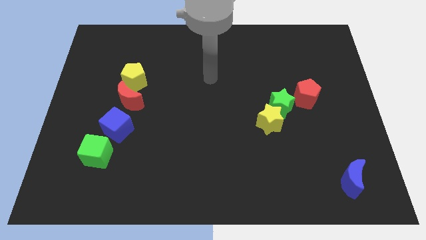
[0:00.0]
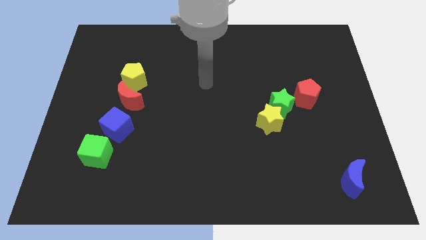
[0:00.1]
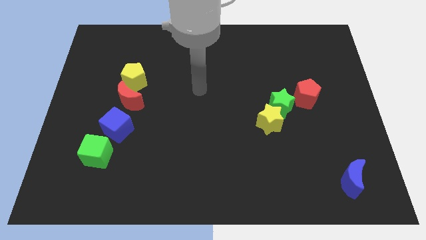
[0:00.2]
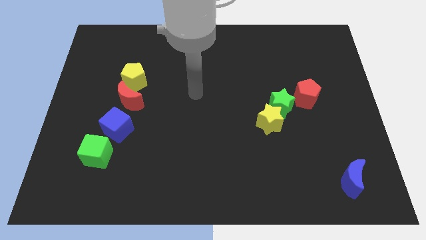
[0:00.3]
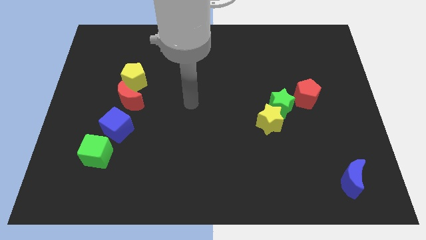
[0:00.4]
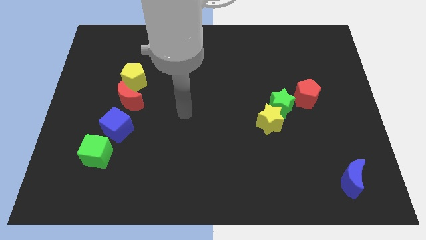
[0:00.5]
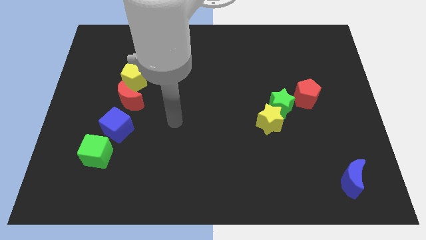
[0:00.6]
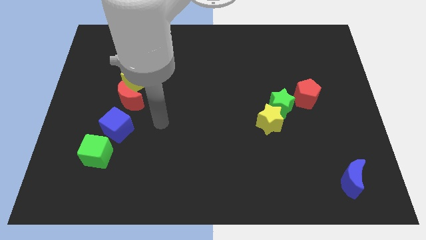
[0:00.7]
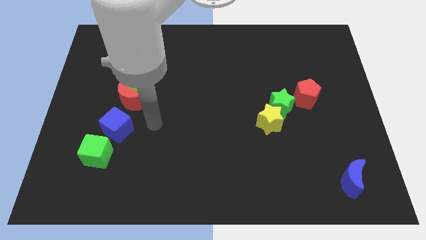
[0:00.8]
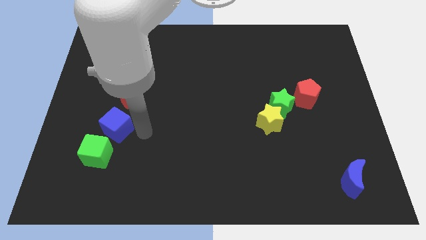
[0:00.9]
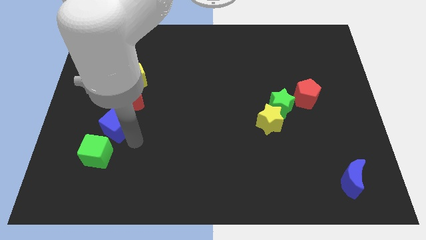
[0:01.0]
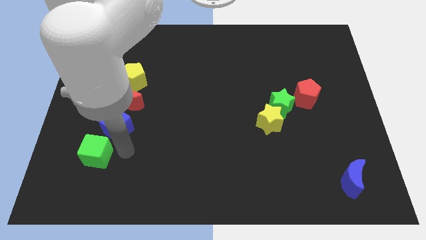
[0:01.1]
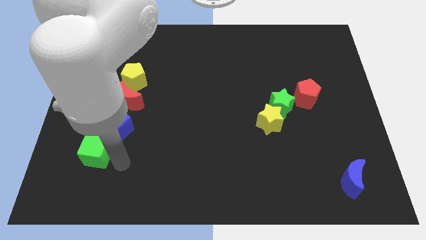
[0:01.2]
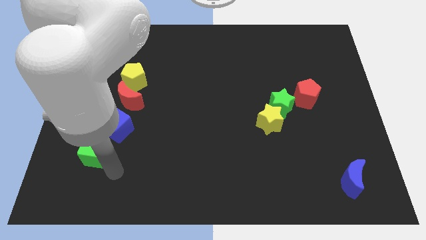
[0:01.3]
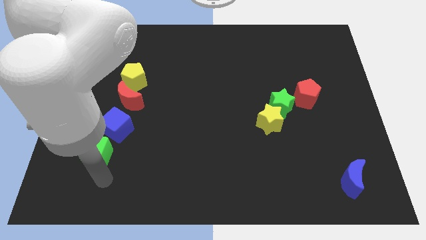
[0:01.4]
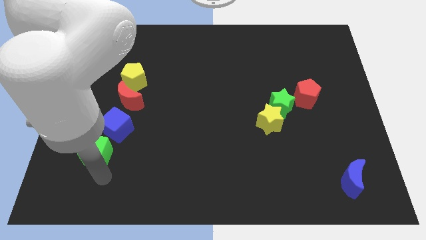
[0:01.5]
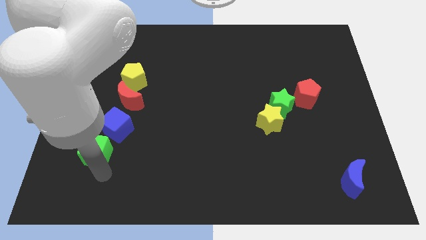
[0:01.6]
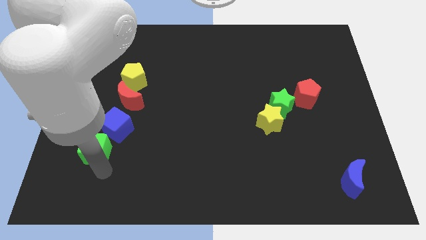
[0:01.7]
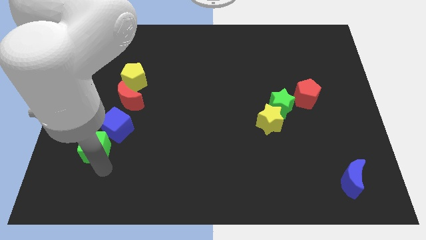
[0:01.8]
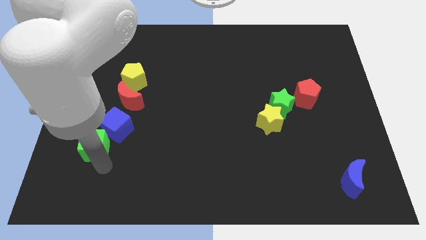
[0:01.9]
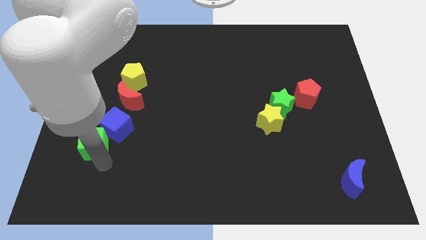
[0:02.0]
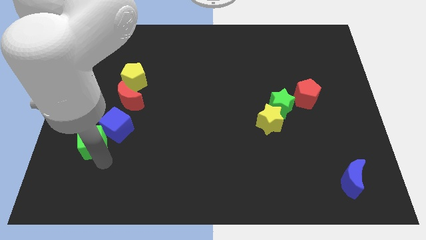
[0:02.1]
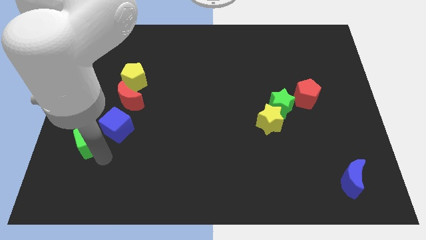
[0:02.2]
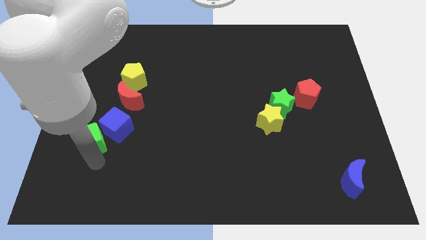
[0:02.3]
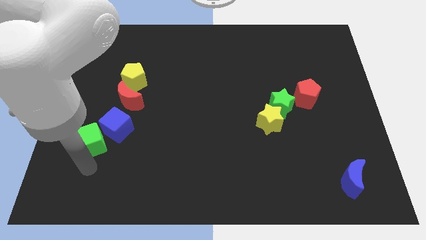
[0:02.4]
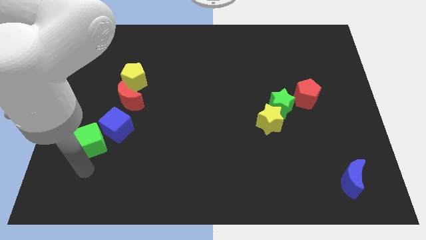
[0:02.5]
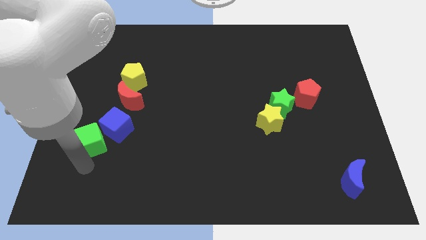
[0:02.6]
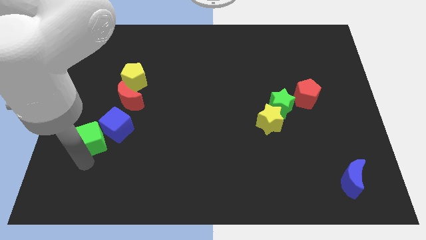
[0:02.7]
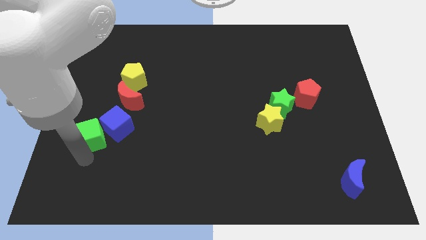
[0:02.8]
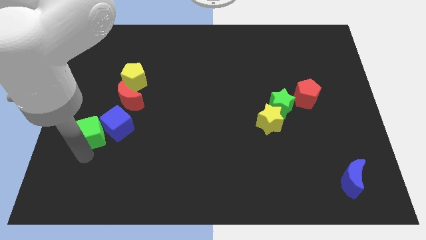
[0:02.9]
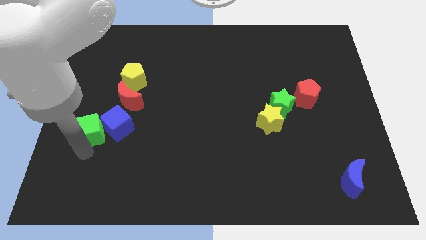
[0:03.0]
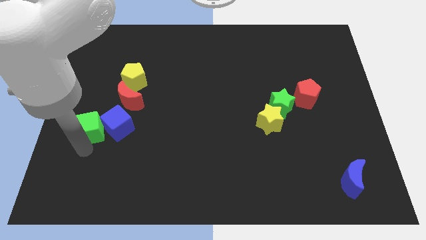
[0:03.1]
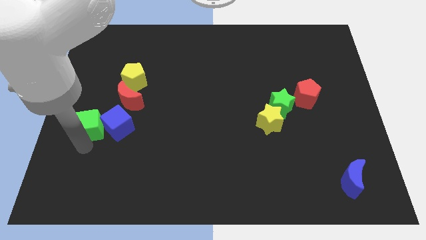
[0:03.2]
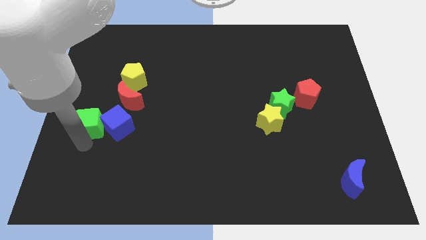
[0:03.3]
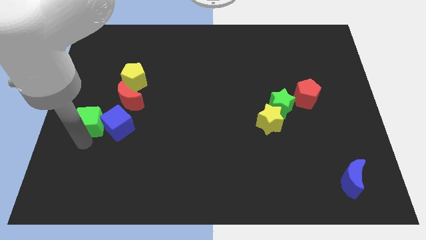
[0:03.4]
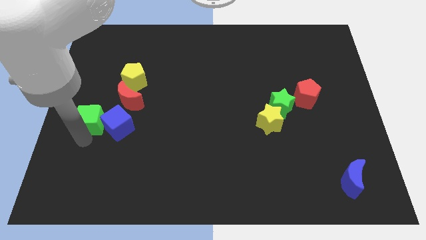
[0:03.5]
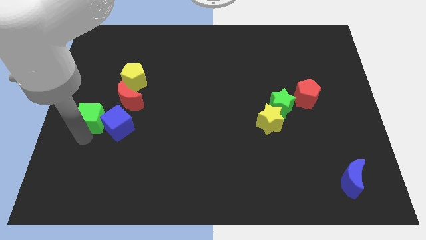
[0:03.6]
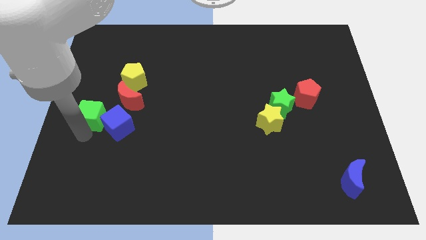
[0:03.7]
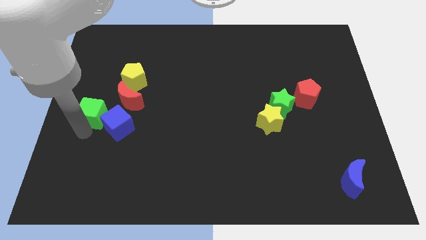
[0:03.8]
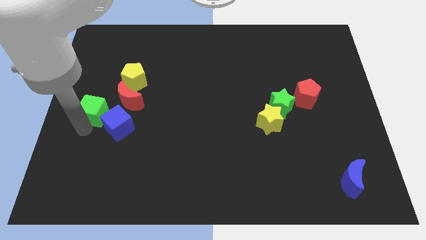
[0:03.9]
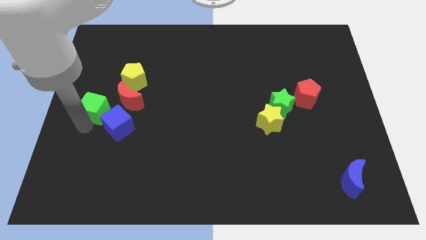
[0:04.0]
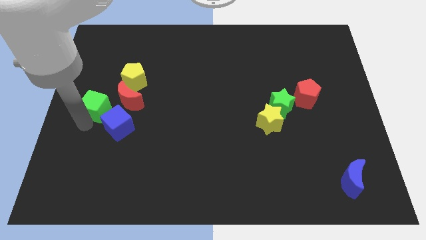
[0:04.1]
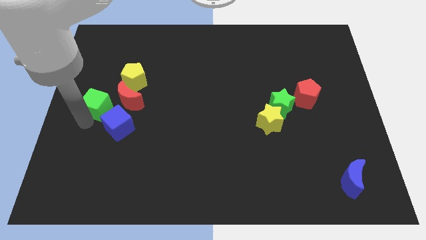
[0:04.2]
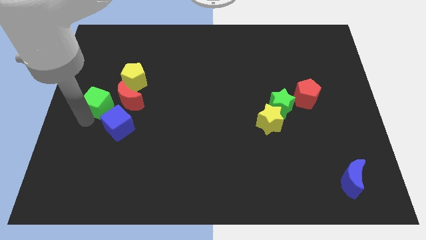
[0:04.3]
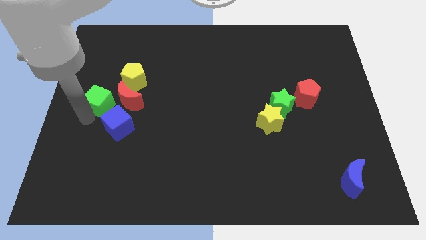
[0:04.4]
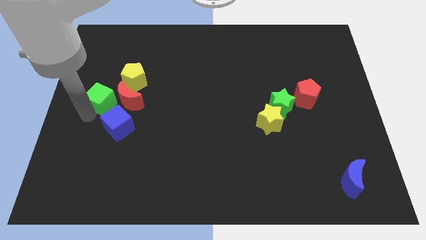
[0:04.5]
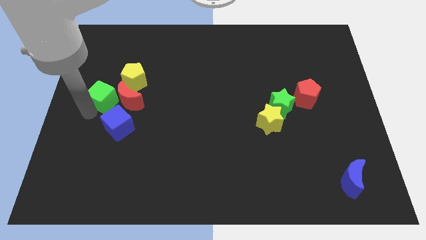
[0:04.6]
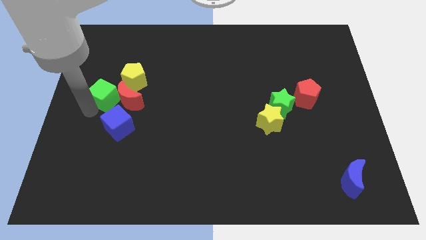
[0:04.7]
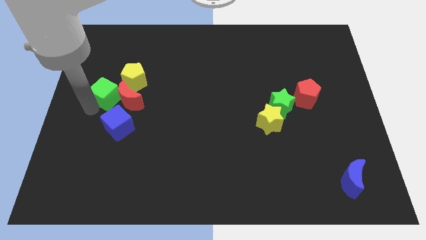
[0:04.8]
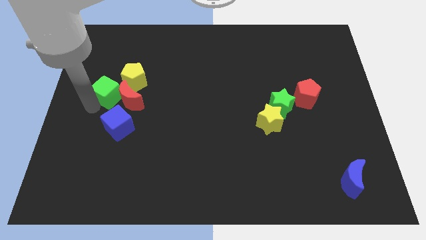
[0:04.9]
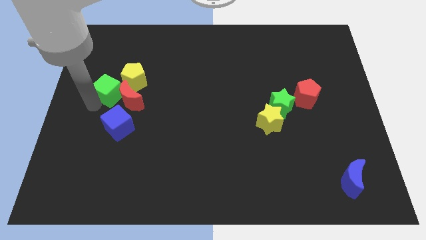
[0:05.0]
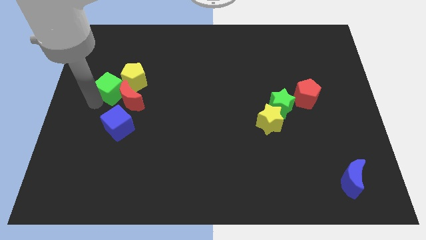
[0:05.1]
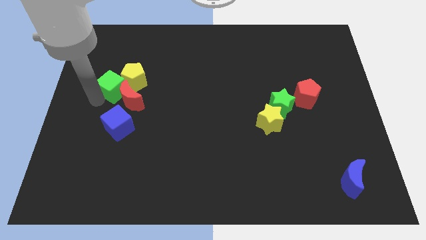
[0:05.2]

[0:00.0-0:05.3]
slide the green cube to the yellow pentagon

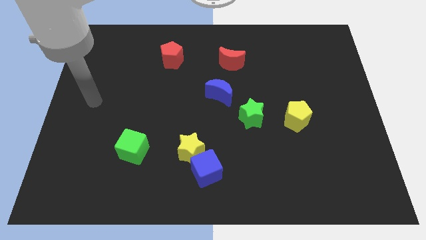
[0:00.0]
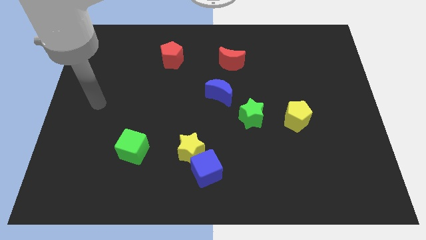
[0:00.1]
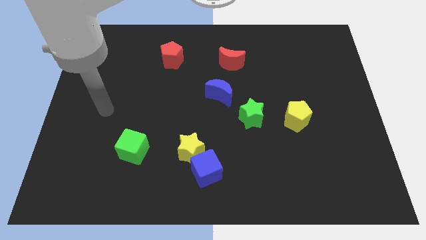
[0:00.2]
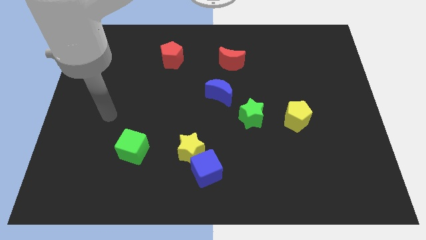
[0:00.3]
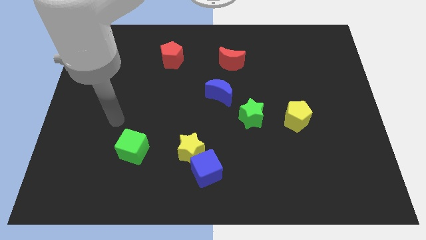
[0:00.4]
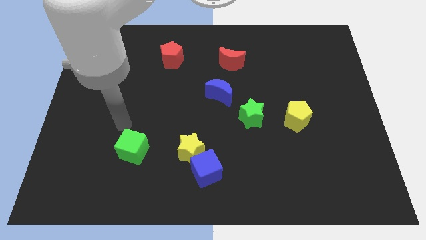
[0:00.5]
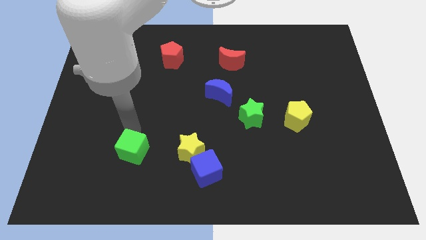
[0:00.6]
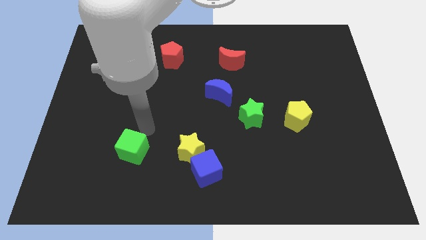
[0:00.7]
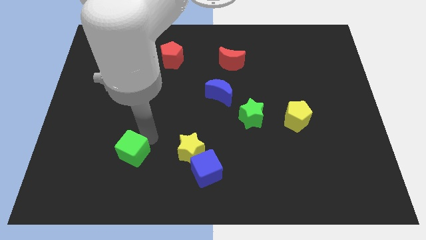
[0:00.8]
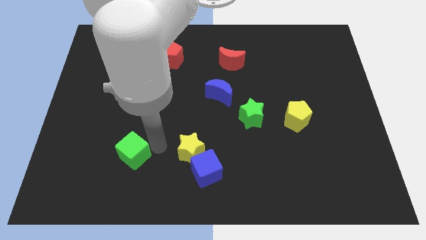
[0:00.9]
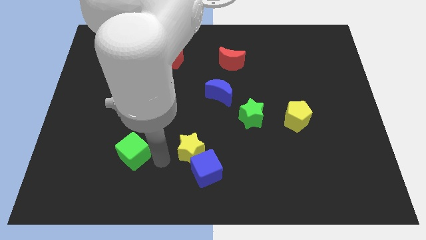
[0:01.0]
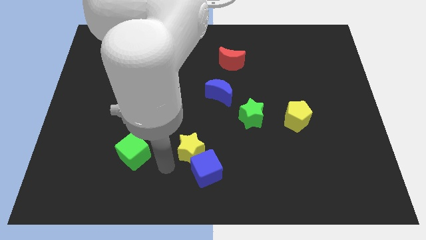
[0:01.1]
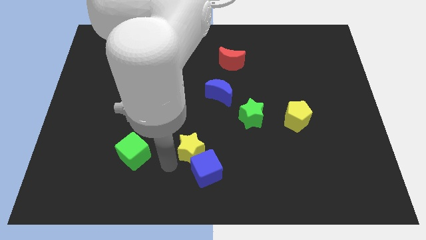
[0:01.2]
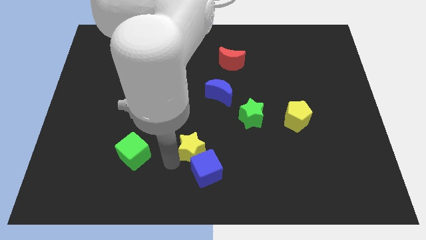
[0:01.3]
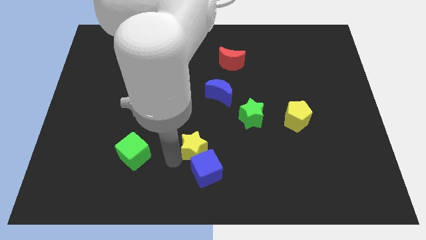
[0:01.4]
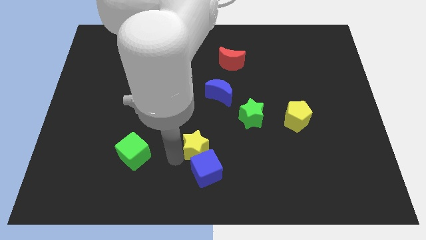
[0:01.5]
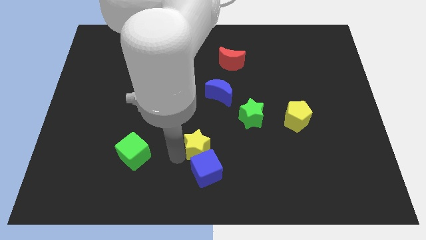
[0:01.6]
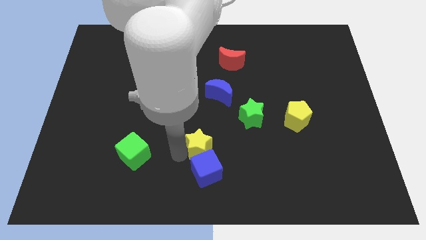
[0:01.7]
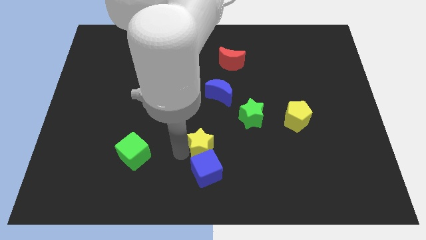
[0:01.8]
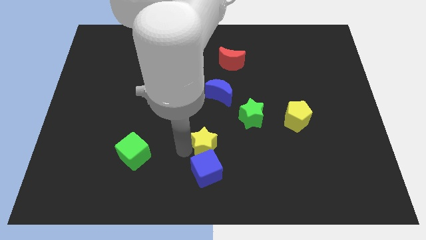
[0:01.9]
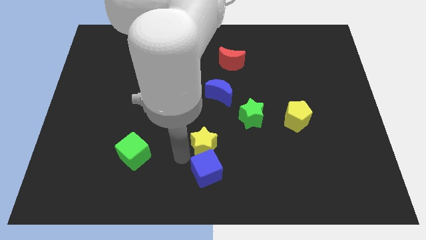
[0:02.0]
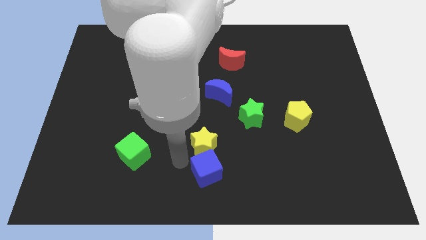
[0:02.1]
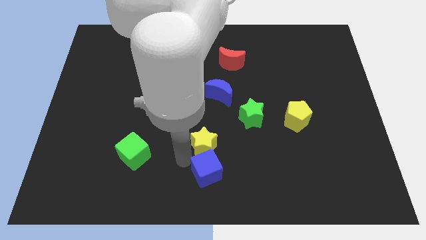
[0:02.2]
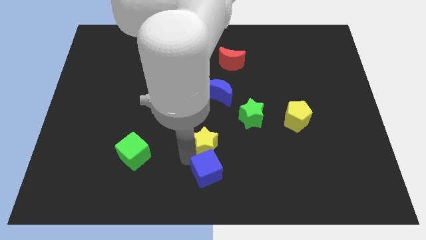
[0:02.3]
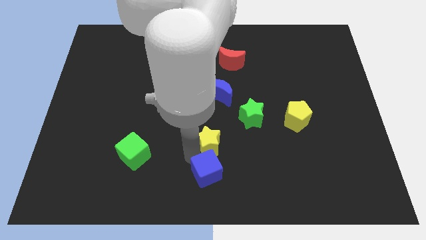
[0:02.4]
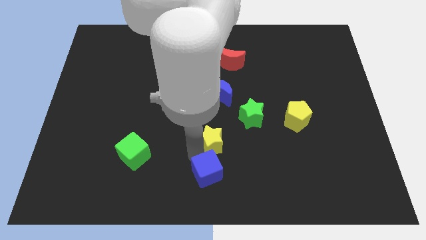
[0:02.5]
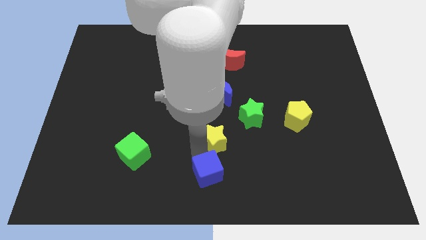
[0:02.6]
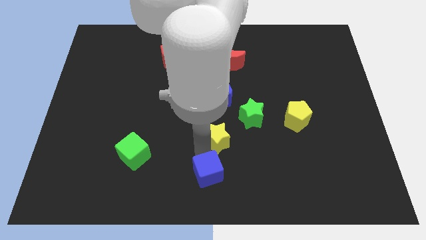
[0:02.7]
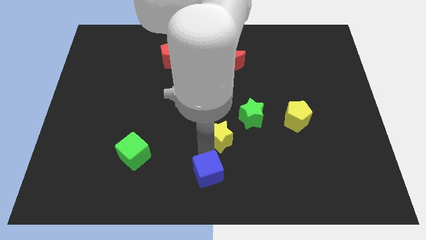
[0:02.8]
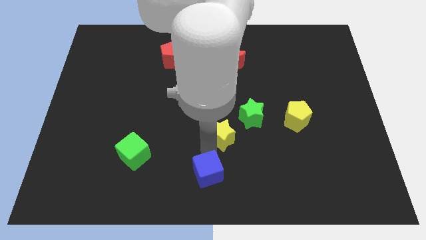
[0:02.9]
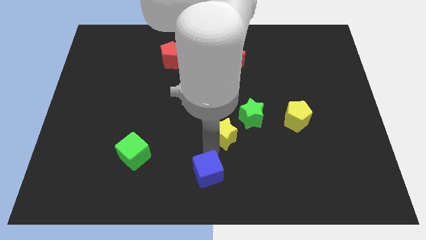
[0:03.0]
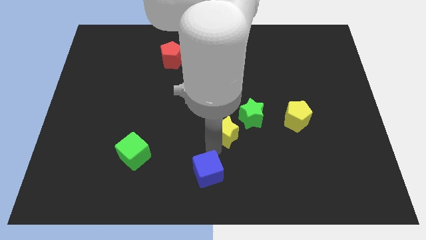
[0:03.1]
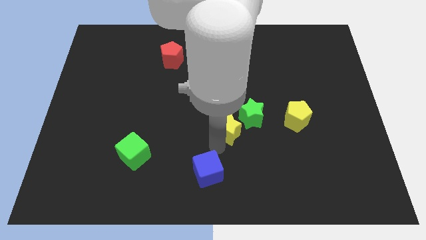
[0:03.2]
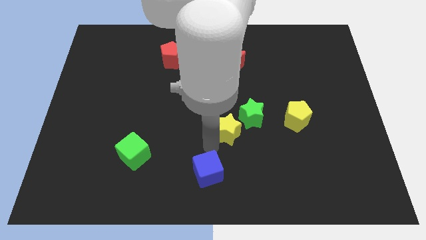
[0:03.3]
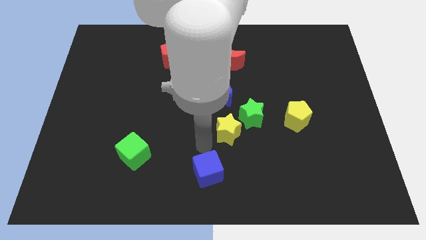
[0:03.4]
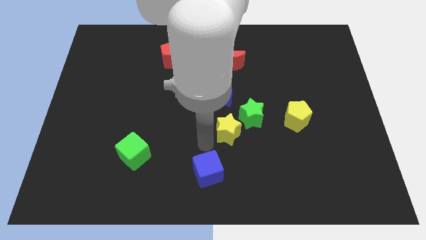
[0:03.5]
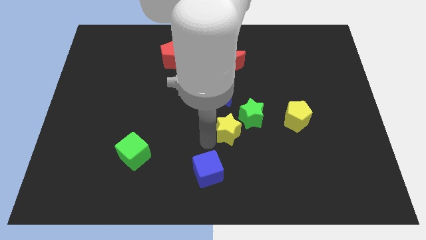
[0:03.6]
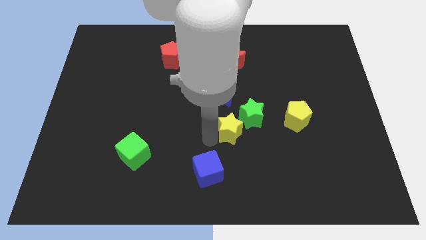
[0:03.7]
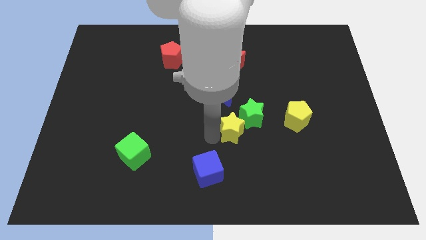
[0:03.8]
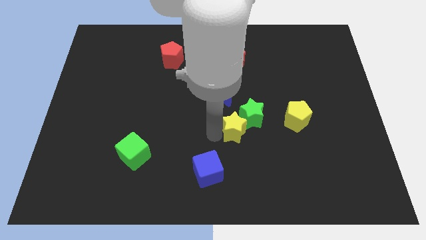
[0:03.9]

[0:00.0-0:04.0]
push the yellow star close to the green star
